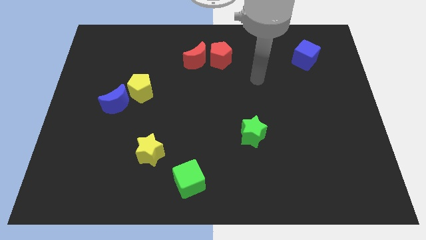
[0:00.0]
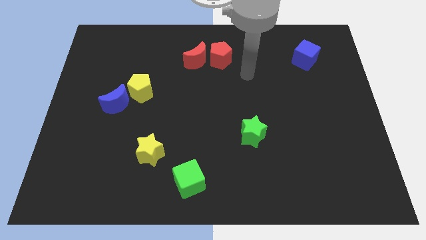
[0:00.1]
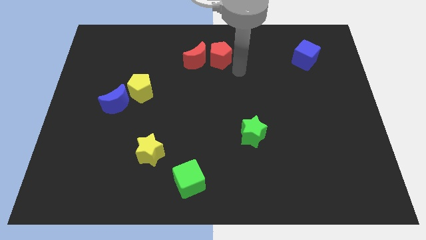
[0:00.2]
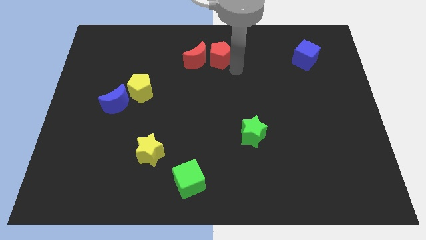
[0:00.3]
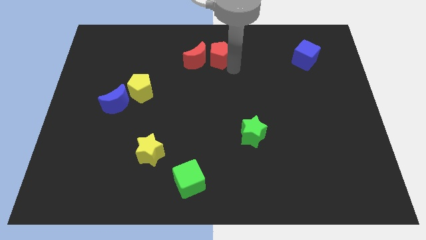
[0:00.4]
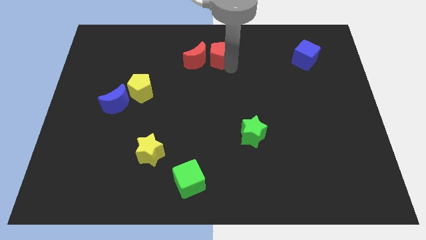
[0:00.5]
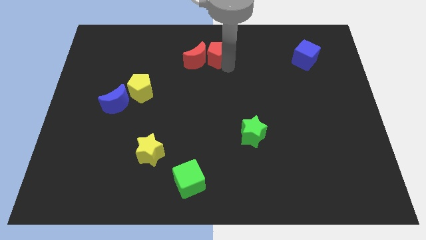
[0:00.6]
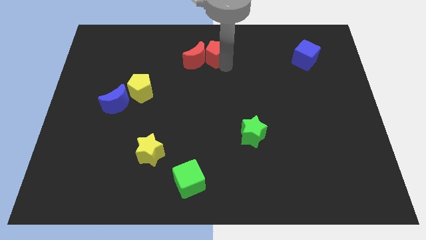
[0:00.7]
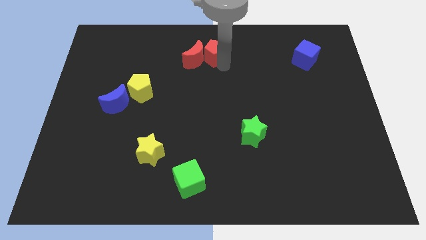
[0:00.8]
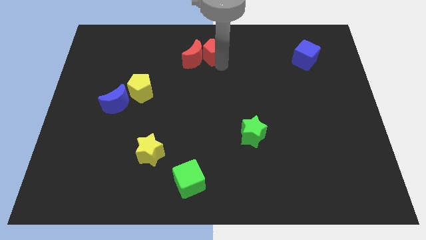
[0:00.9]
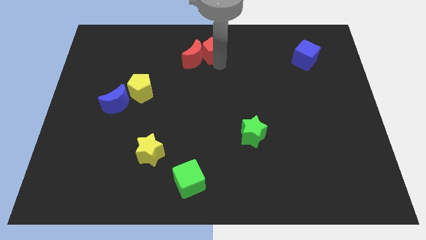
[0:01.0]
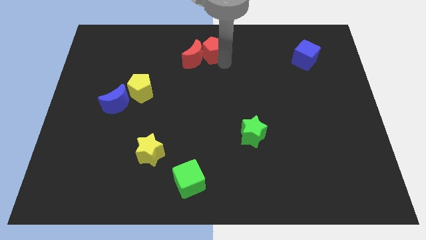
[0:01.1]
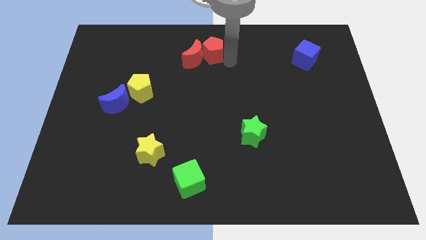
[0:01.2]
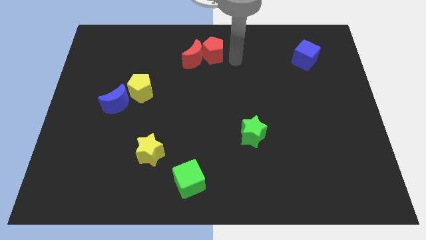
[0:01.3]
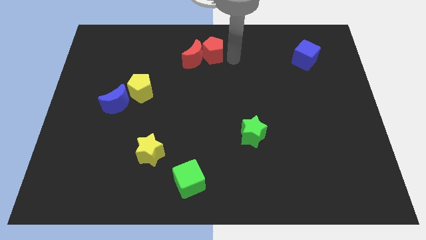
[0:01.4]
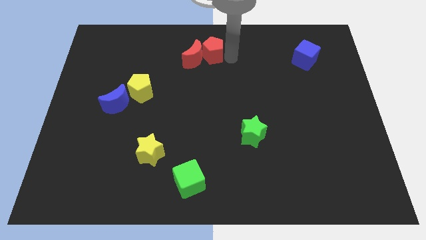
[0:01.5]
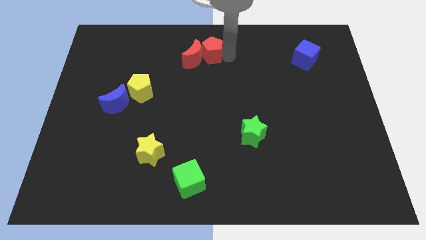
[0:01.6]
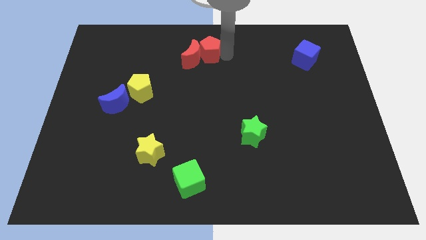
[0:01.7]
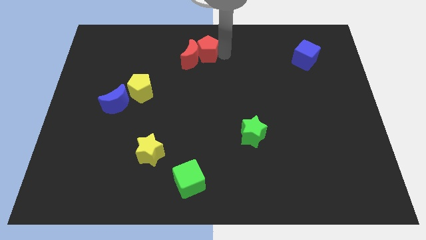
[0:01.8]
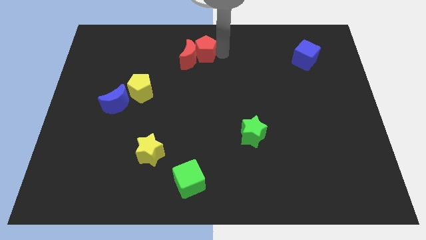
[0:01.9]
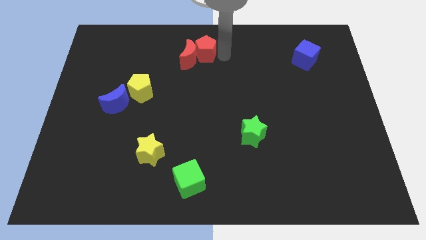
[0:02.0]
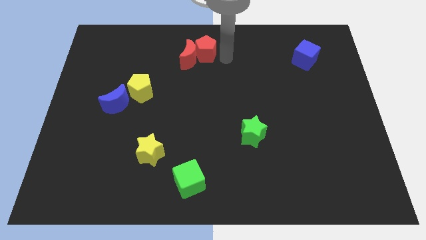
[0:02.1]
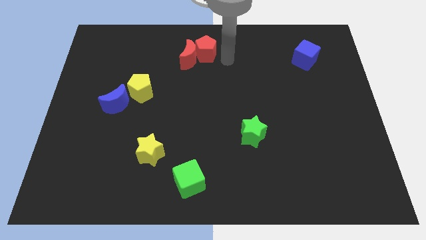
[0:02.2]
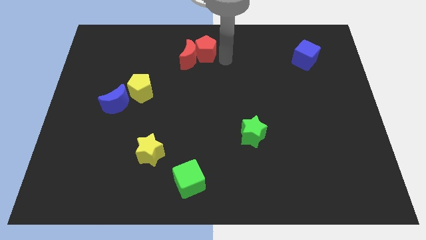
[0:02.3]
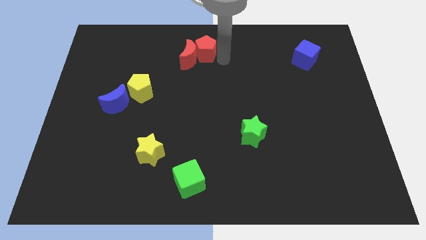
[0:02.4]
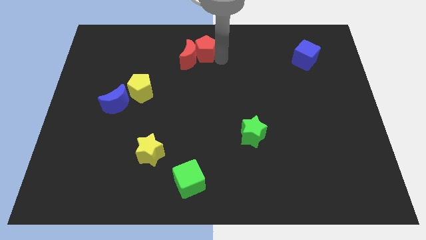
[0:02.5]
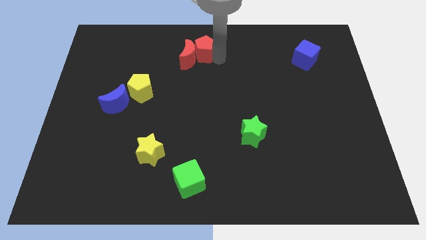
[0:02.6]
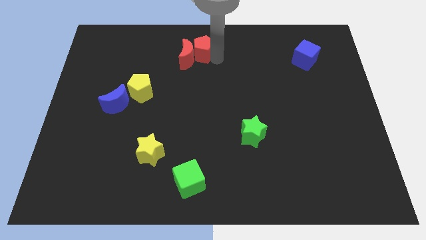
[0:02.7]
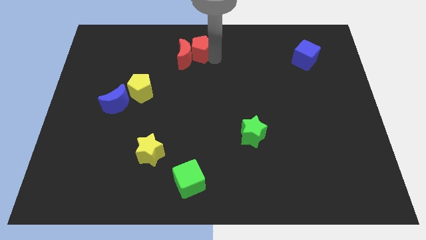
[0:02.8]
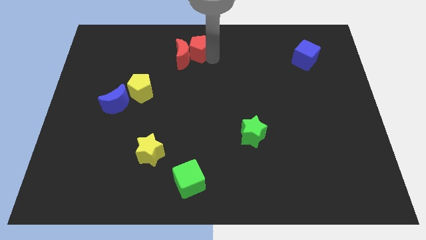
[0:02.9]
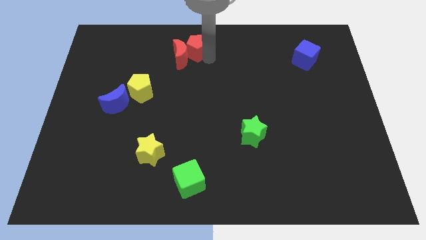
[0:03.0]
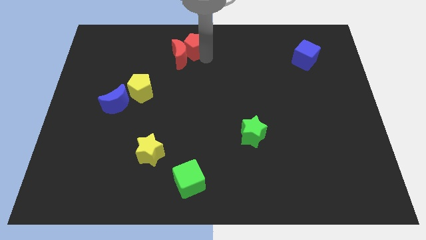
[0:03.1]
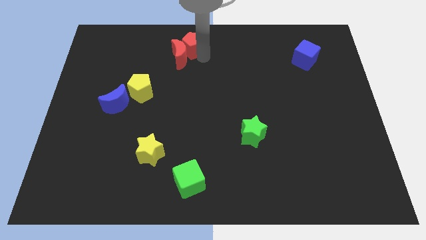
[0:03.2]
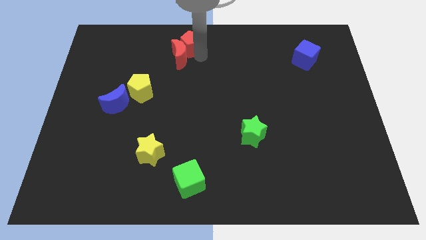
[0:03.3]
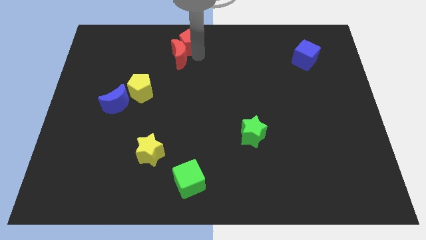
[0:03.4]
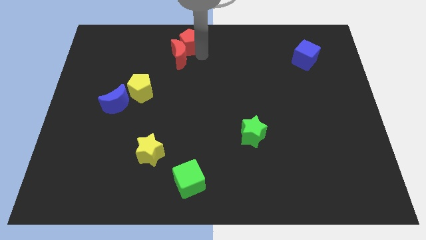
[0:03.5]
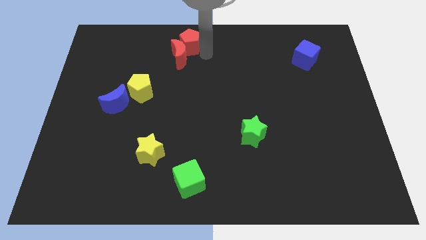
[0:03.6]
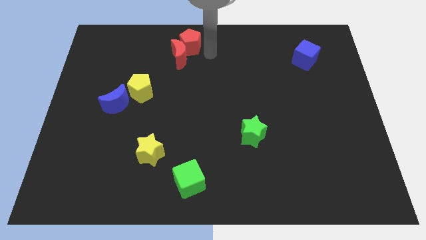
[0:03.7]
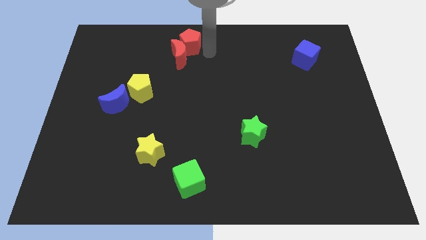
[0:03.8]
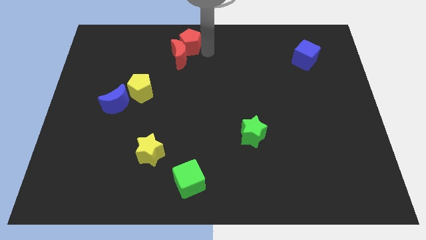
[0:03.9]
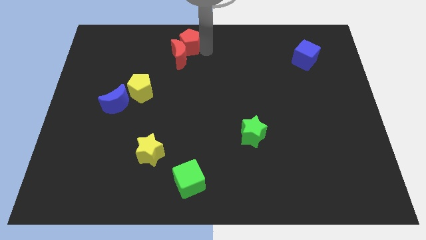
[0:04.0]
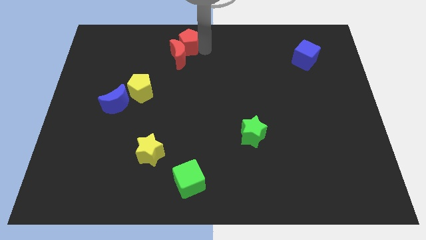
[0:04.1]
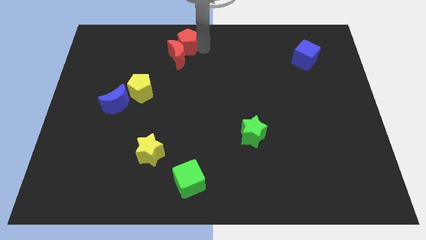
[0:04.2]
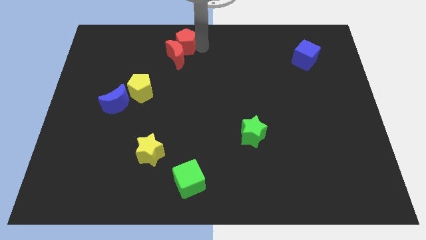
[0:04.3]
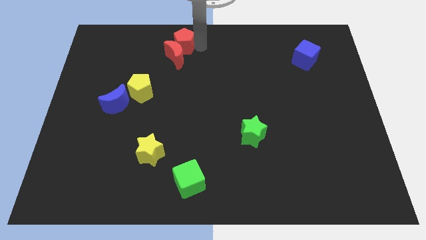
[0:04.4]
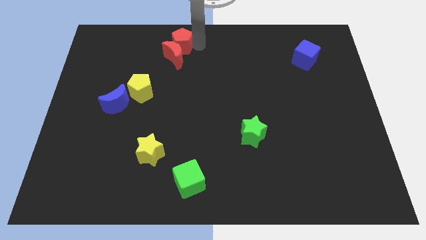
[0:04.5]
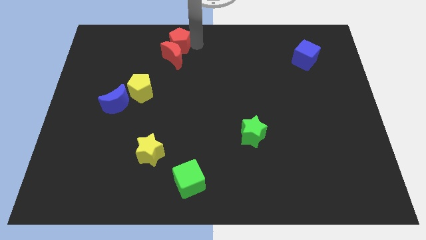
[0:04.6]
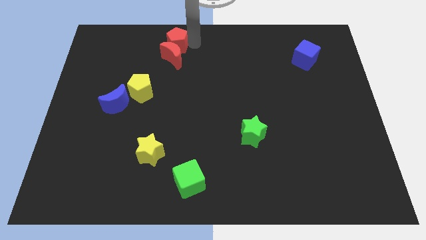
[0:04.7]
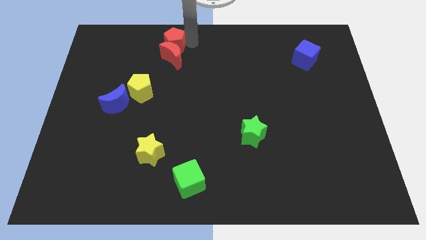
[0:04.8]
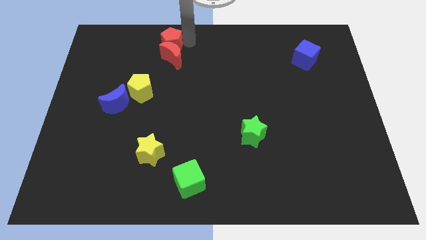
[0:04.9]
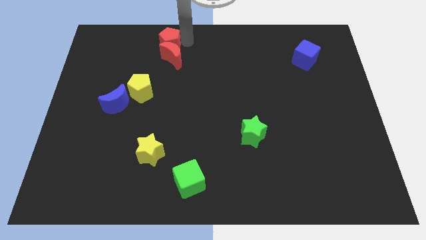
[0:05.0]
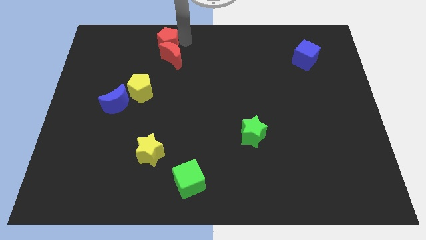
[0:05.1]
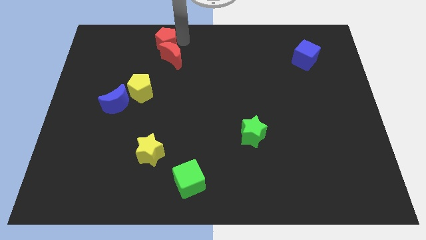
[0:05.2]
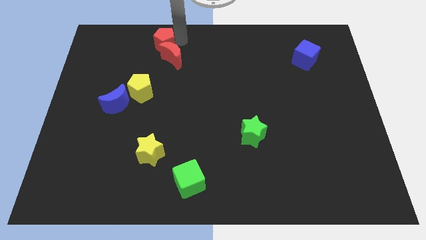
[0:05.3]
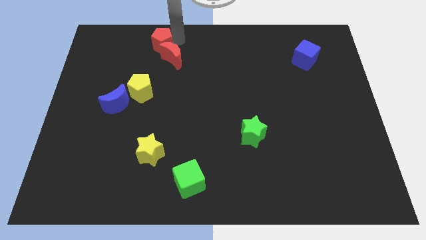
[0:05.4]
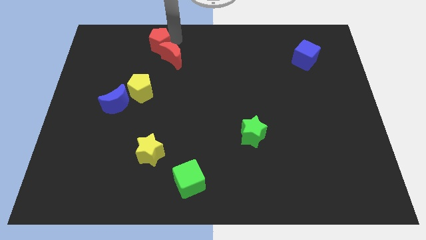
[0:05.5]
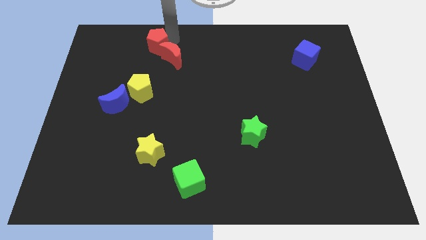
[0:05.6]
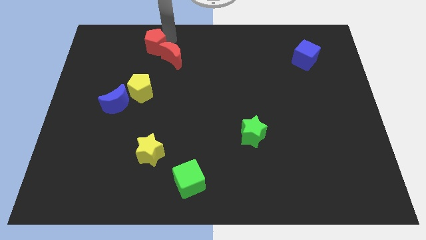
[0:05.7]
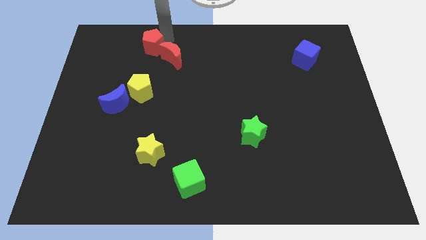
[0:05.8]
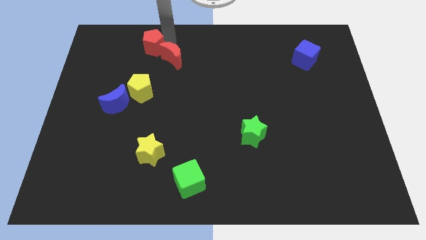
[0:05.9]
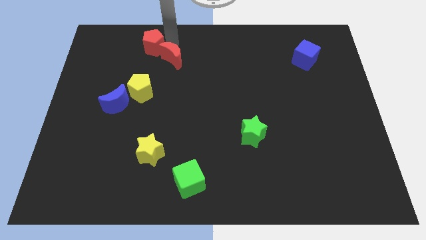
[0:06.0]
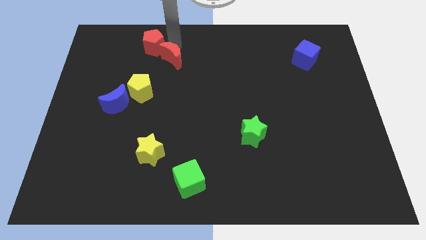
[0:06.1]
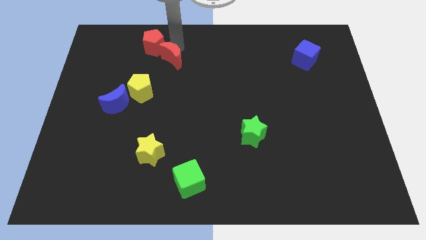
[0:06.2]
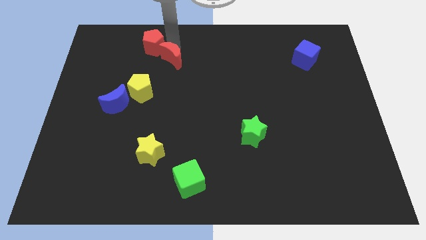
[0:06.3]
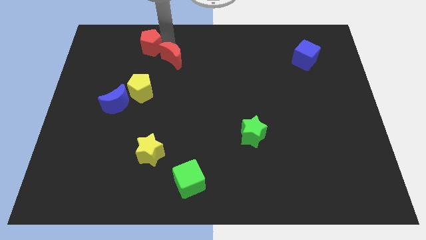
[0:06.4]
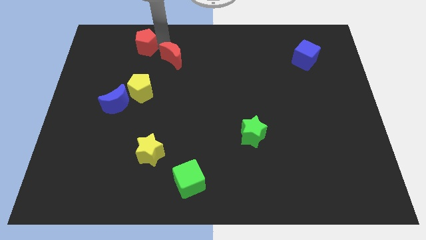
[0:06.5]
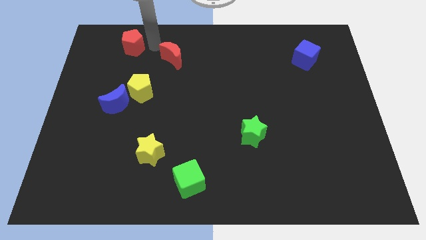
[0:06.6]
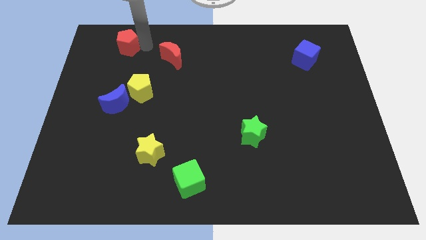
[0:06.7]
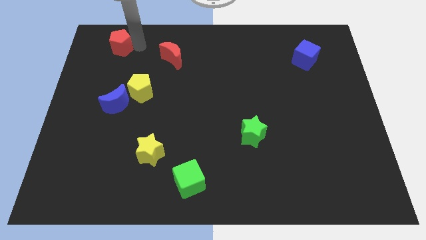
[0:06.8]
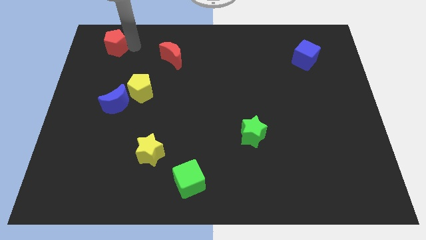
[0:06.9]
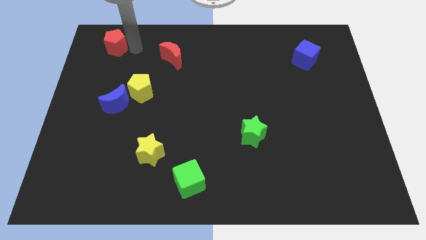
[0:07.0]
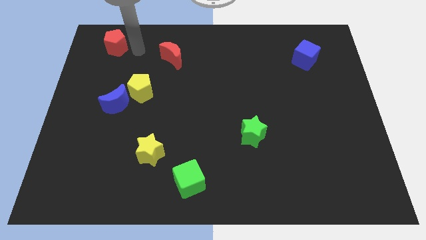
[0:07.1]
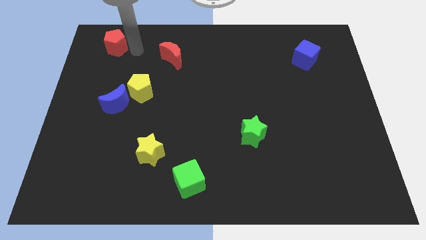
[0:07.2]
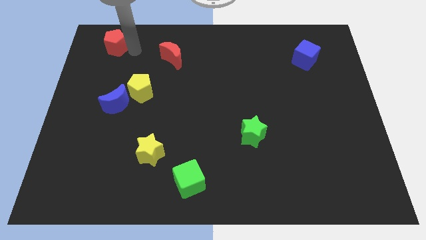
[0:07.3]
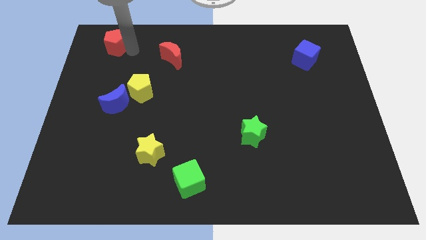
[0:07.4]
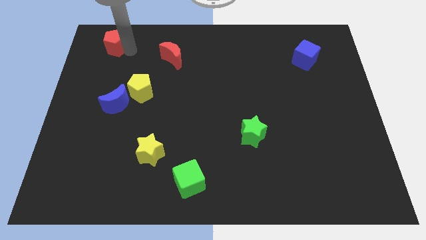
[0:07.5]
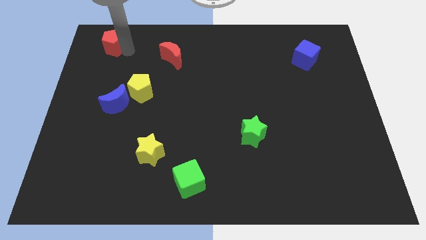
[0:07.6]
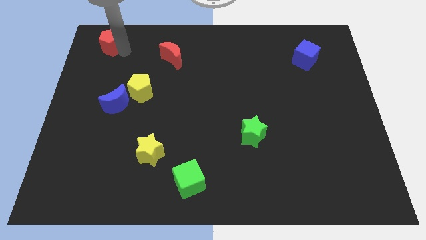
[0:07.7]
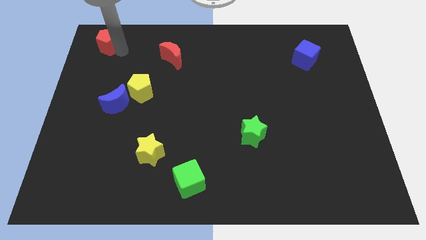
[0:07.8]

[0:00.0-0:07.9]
move the red pentagon to the top left corner
